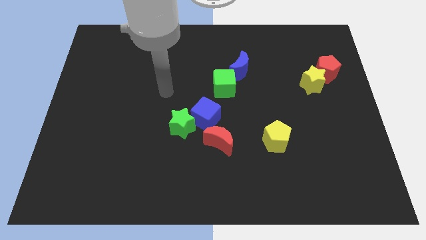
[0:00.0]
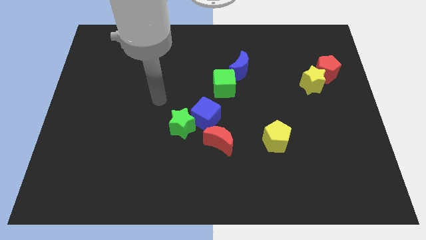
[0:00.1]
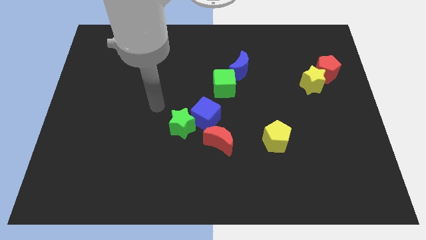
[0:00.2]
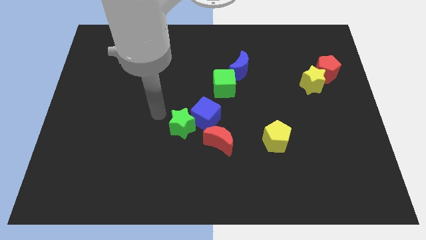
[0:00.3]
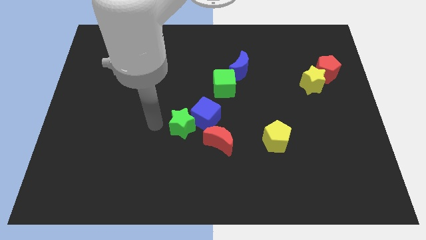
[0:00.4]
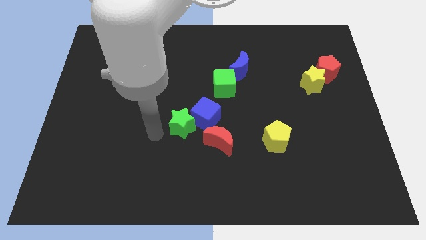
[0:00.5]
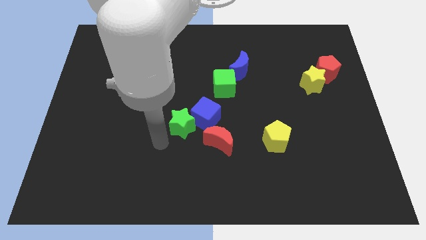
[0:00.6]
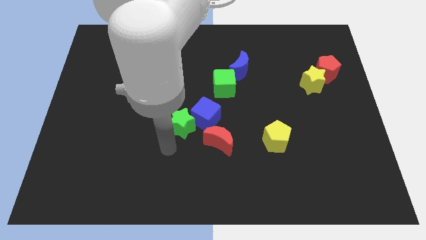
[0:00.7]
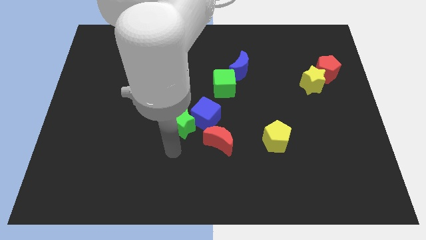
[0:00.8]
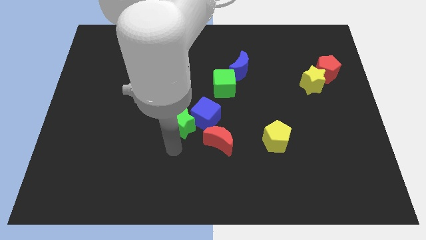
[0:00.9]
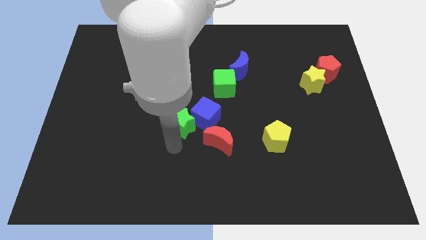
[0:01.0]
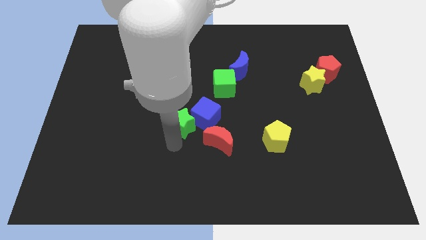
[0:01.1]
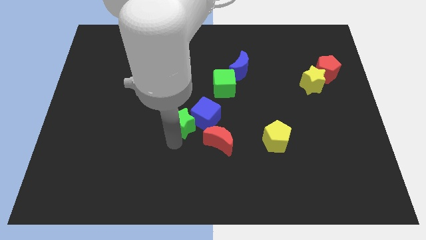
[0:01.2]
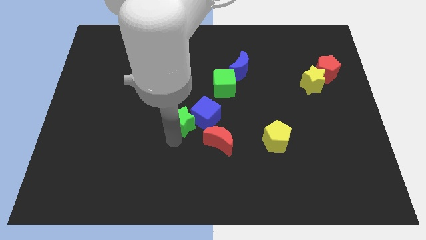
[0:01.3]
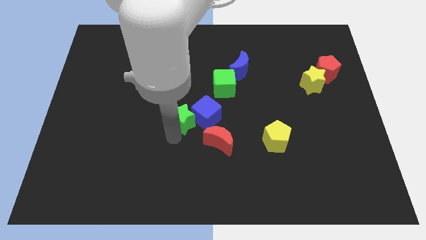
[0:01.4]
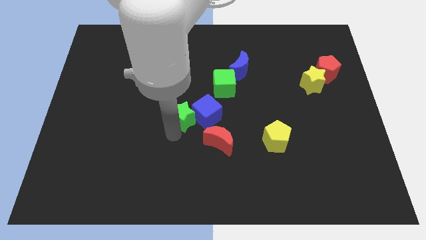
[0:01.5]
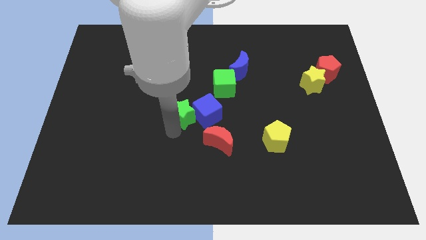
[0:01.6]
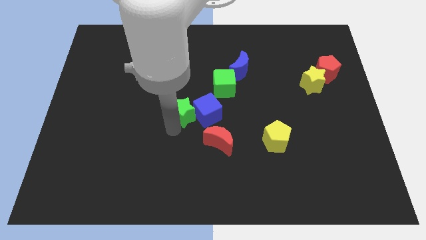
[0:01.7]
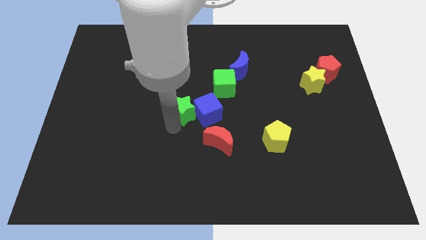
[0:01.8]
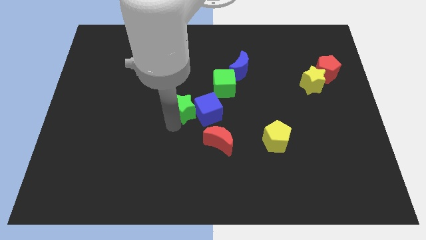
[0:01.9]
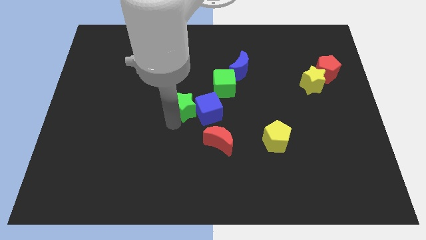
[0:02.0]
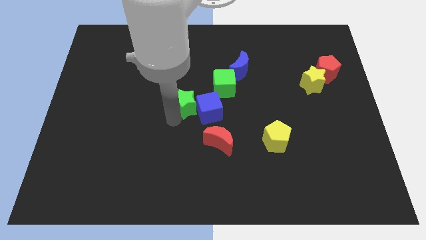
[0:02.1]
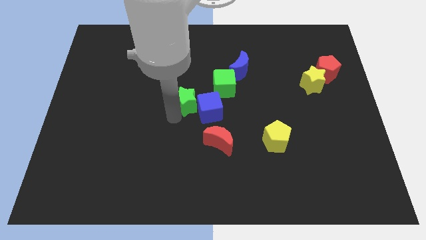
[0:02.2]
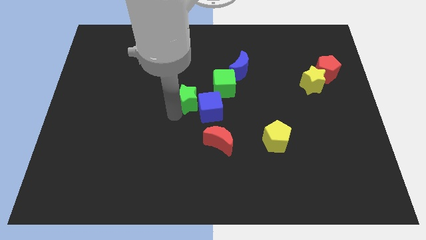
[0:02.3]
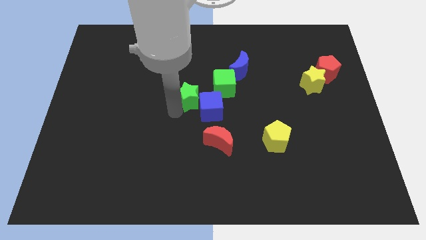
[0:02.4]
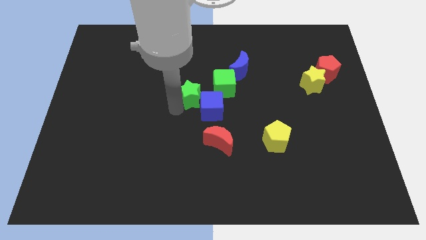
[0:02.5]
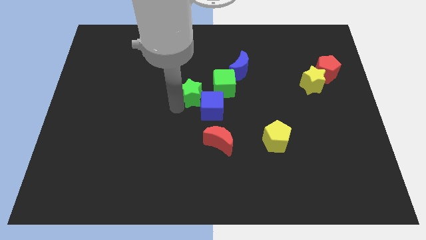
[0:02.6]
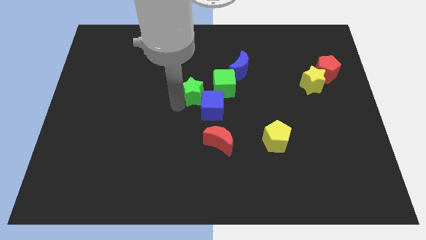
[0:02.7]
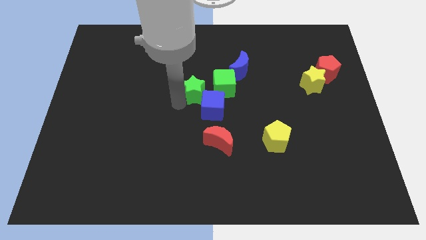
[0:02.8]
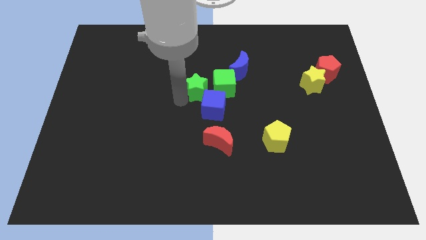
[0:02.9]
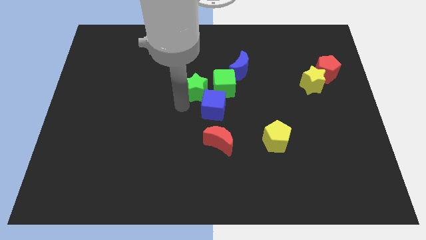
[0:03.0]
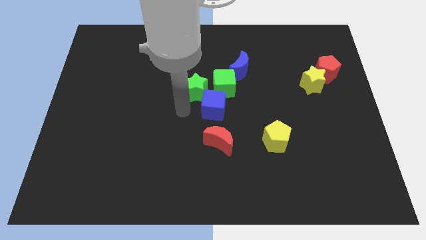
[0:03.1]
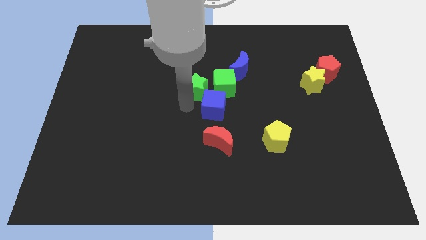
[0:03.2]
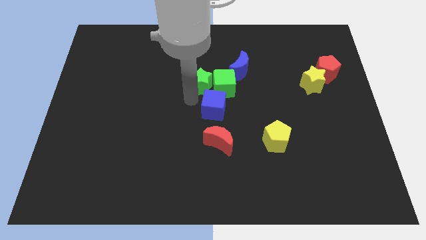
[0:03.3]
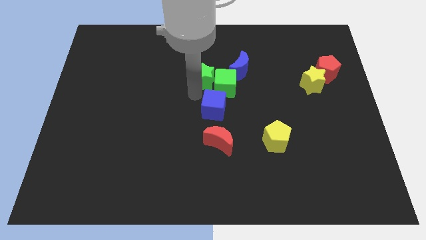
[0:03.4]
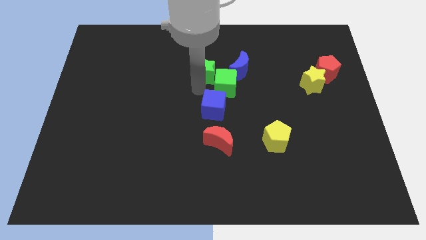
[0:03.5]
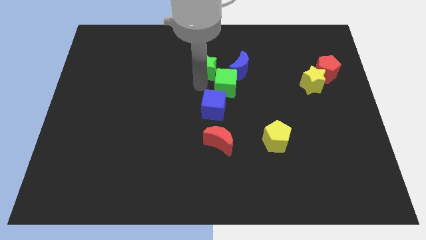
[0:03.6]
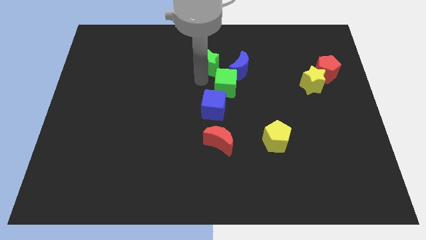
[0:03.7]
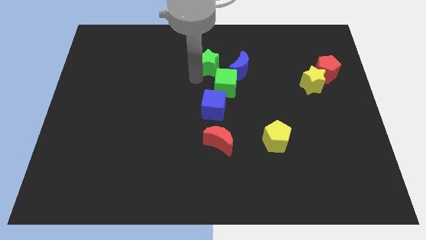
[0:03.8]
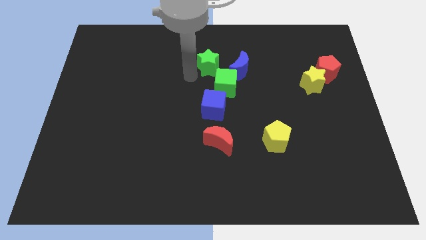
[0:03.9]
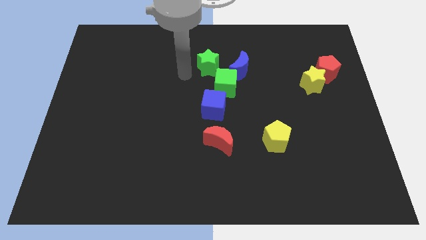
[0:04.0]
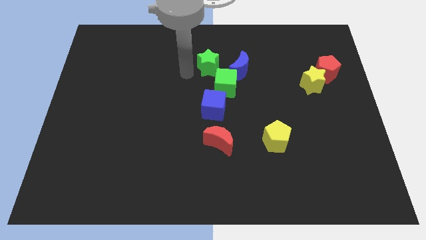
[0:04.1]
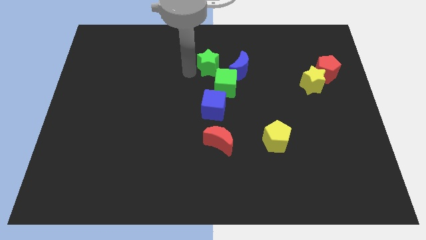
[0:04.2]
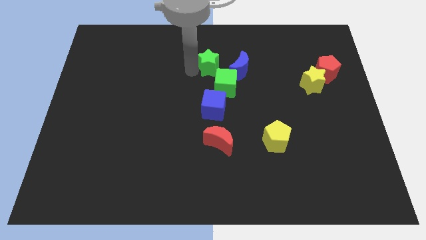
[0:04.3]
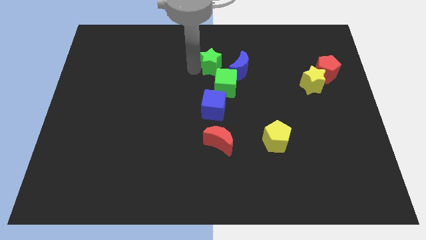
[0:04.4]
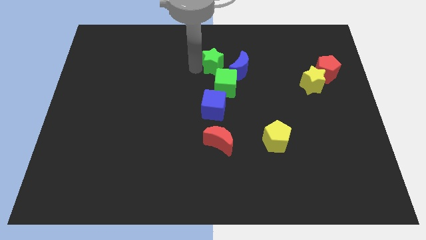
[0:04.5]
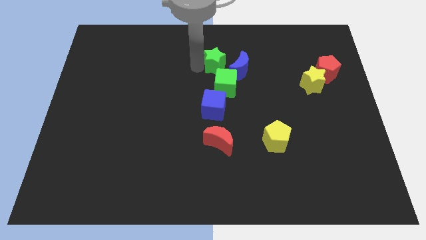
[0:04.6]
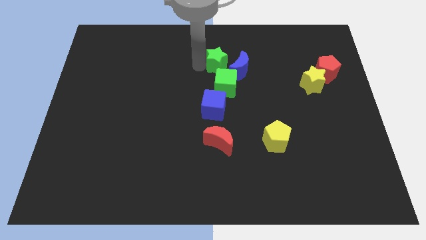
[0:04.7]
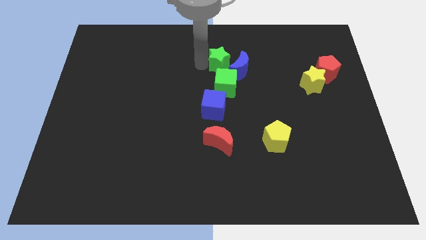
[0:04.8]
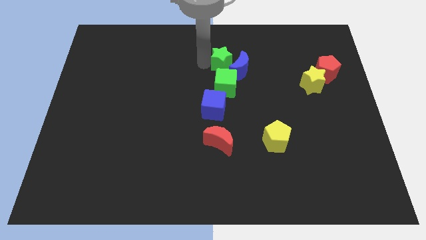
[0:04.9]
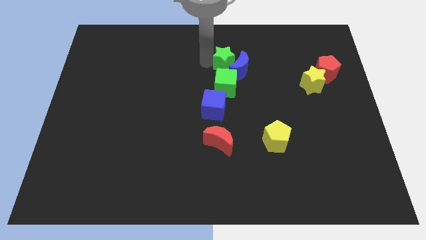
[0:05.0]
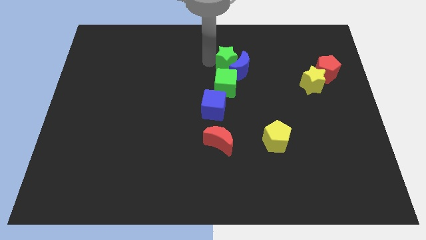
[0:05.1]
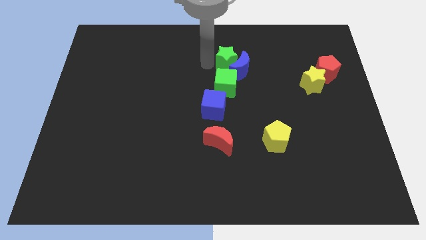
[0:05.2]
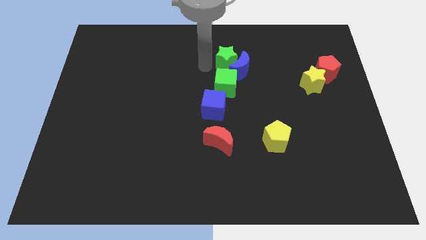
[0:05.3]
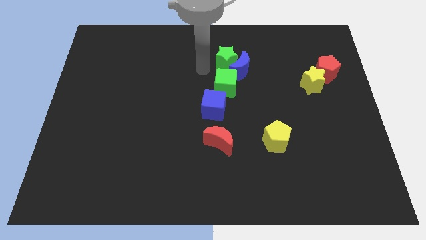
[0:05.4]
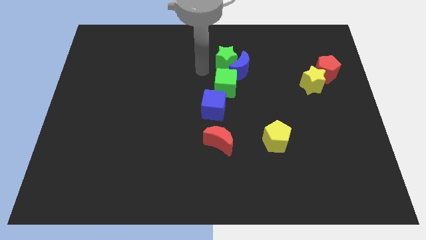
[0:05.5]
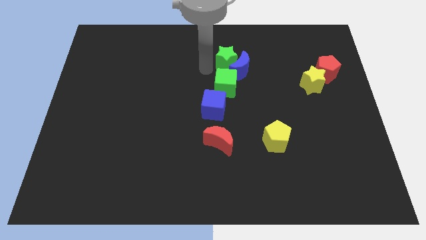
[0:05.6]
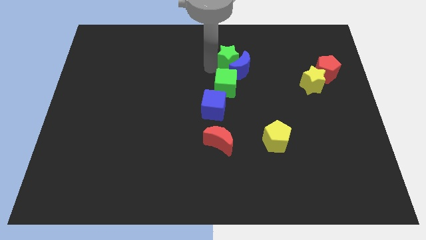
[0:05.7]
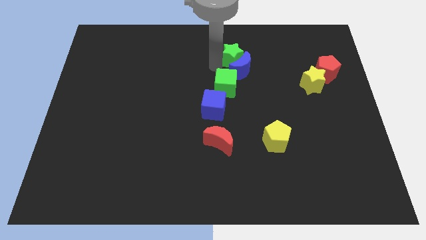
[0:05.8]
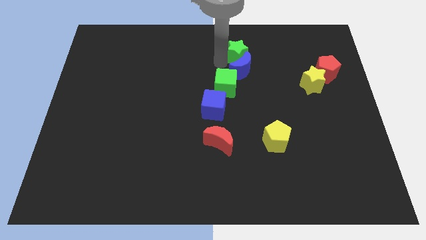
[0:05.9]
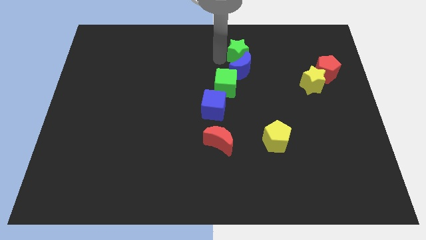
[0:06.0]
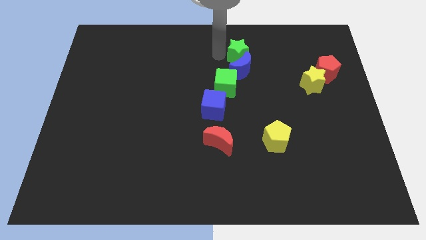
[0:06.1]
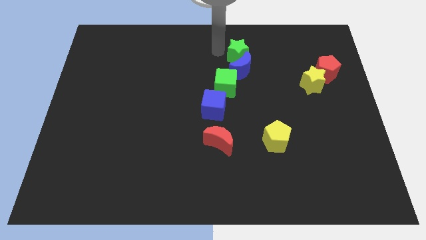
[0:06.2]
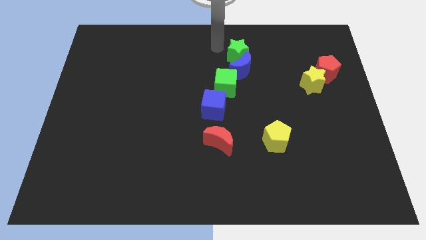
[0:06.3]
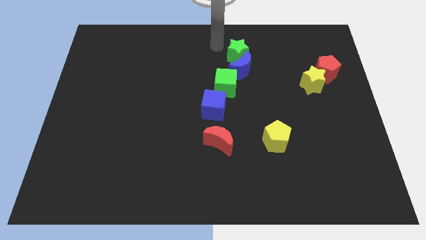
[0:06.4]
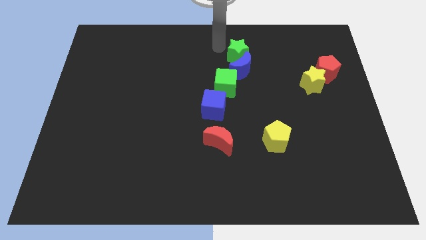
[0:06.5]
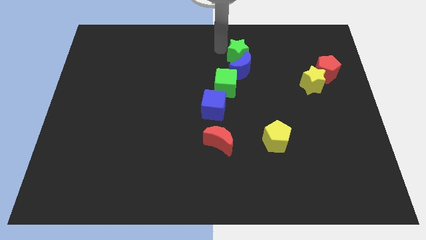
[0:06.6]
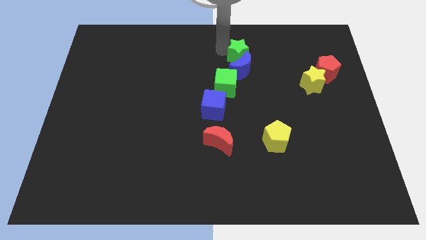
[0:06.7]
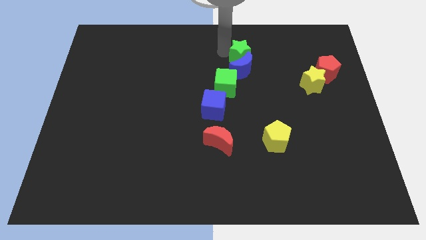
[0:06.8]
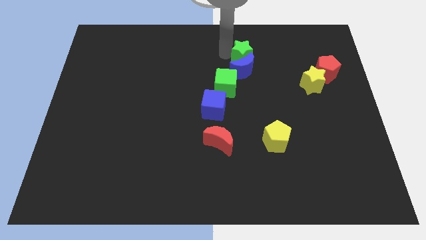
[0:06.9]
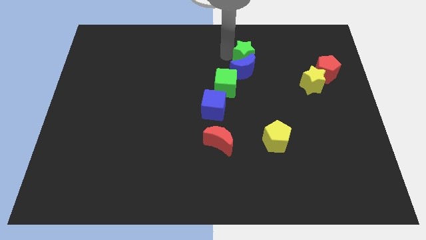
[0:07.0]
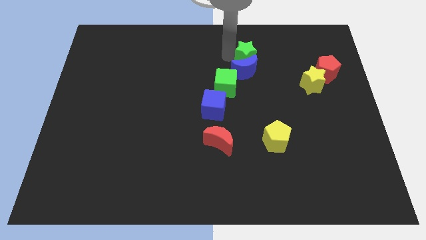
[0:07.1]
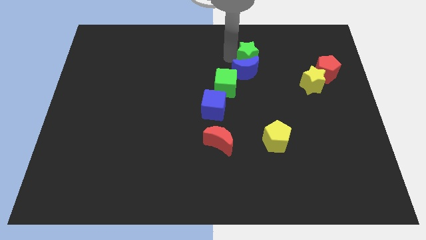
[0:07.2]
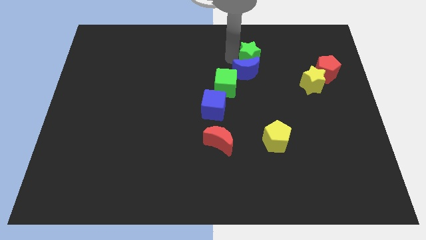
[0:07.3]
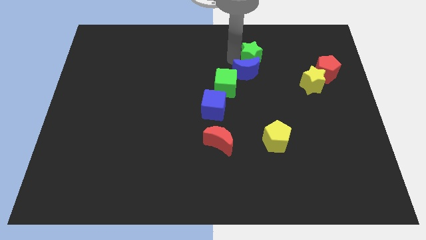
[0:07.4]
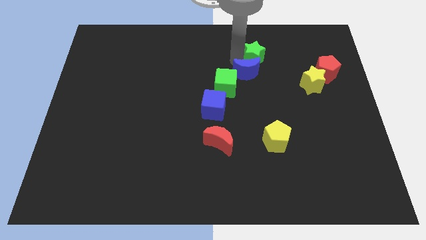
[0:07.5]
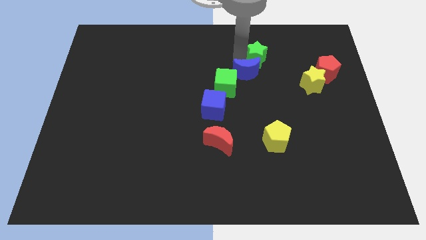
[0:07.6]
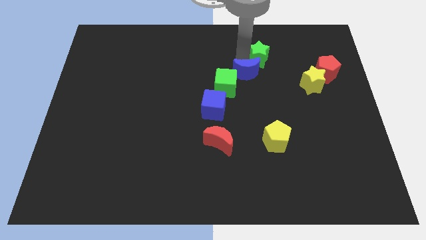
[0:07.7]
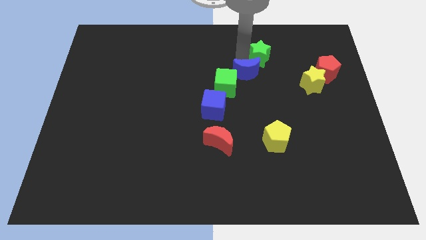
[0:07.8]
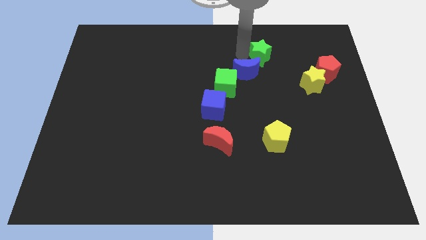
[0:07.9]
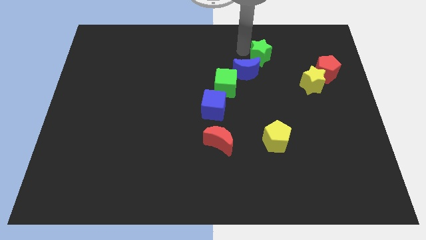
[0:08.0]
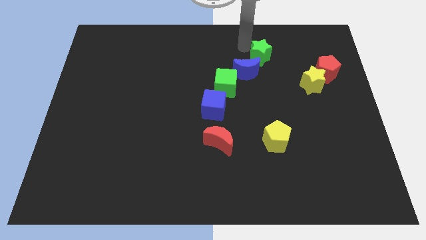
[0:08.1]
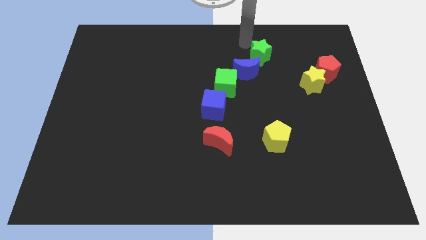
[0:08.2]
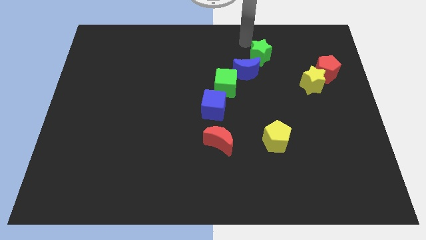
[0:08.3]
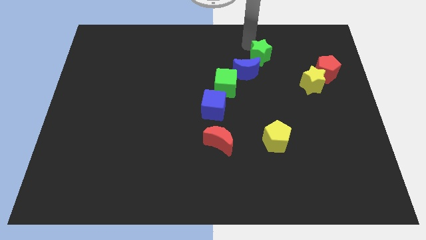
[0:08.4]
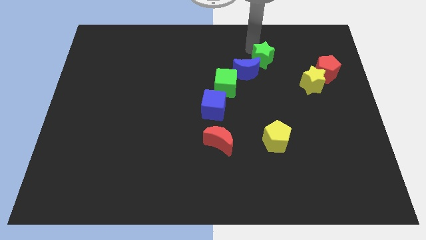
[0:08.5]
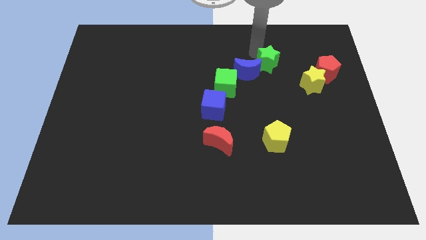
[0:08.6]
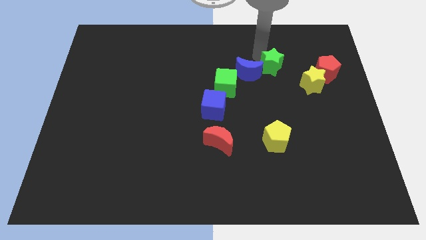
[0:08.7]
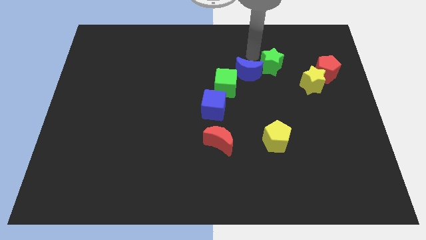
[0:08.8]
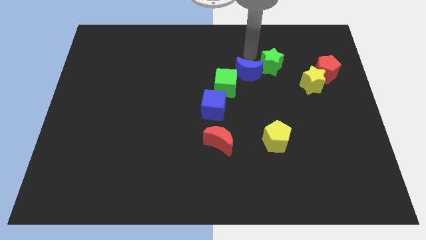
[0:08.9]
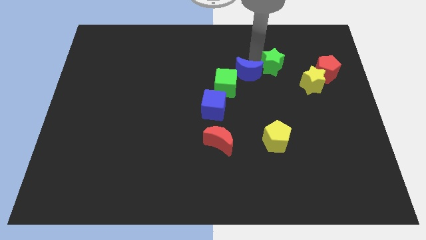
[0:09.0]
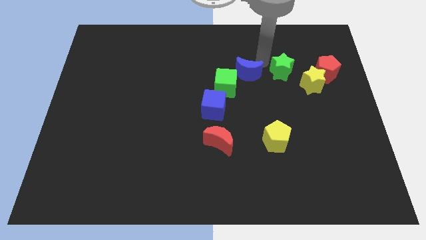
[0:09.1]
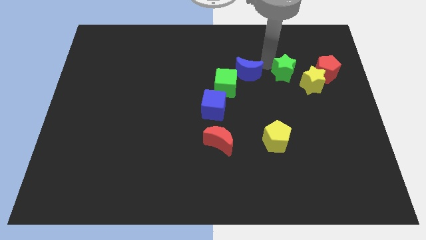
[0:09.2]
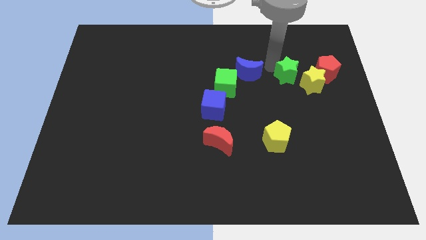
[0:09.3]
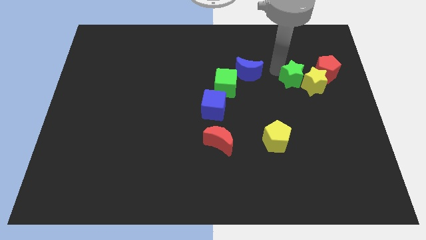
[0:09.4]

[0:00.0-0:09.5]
slide the green star towards the yellow star
